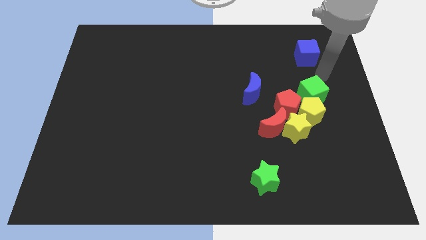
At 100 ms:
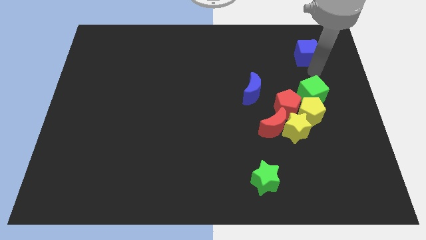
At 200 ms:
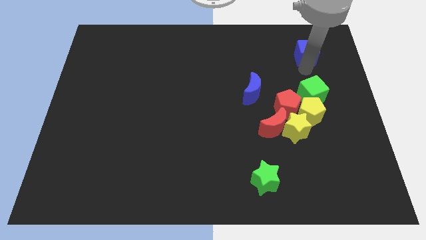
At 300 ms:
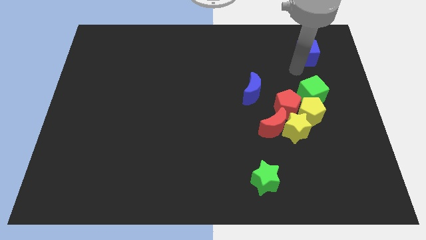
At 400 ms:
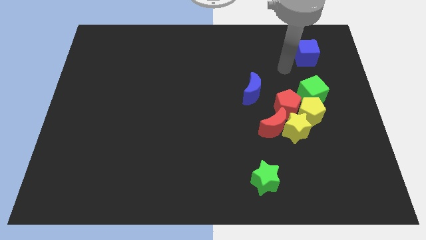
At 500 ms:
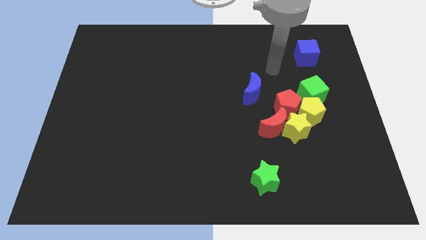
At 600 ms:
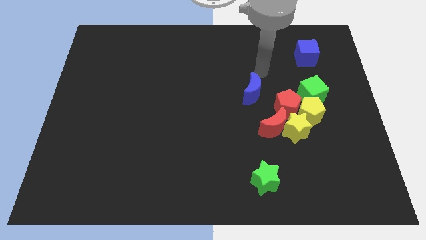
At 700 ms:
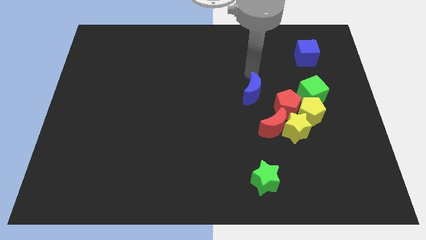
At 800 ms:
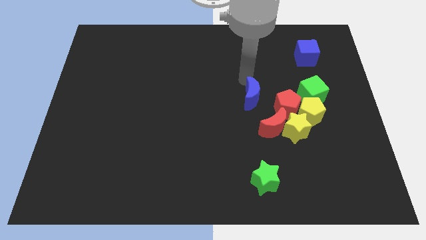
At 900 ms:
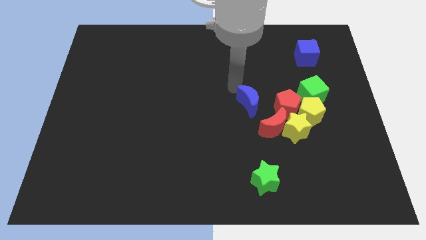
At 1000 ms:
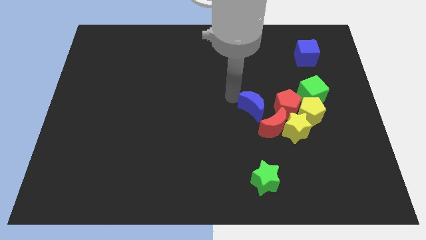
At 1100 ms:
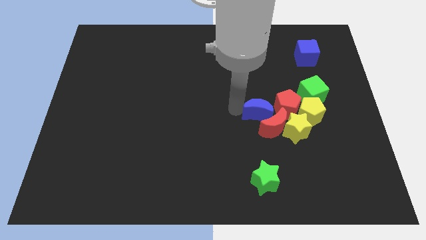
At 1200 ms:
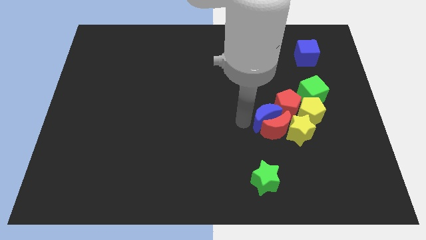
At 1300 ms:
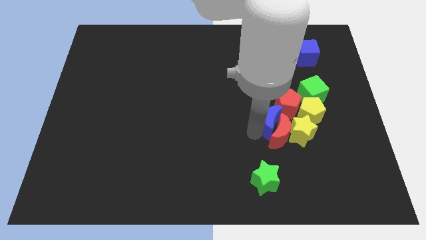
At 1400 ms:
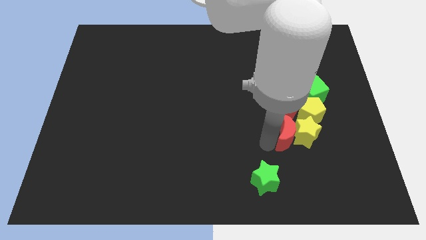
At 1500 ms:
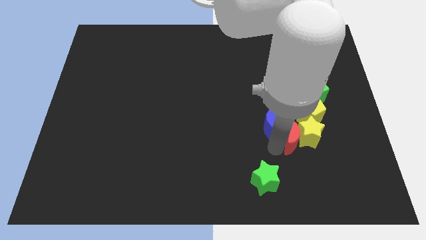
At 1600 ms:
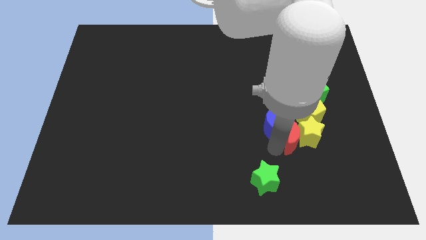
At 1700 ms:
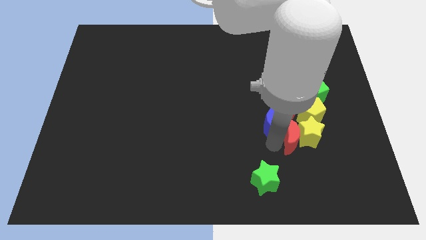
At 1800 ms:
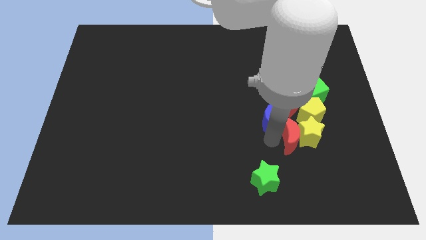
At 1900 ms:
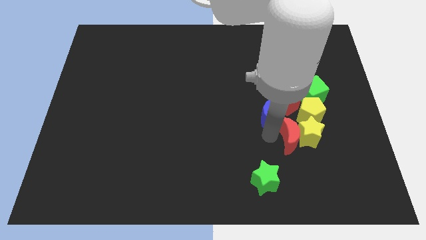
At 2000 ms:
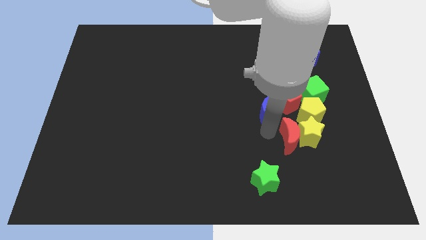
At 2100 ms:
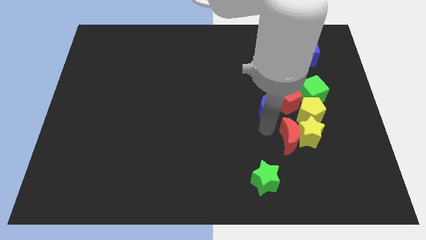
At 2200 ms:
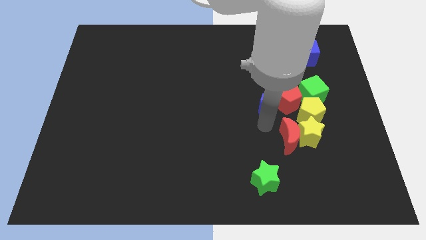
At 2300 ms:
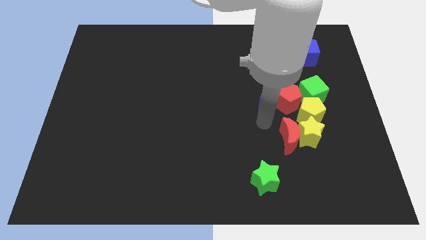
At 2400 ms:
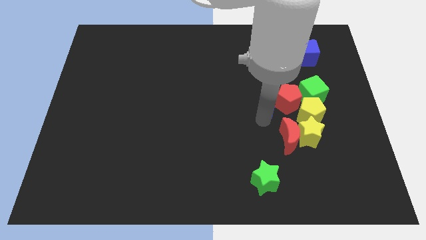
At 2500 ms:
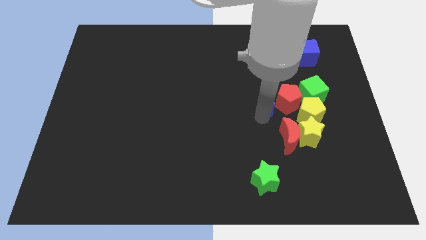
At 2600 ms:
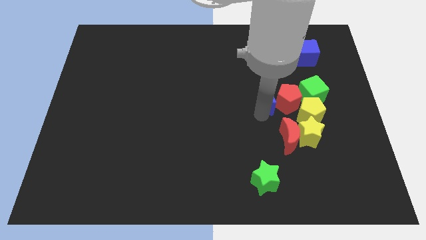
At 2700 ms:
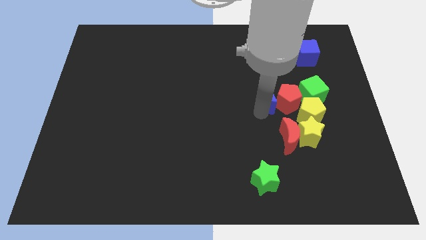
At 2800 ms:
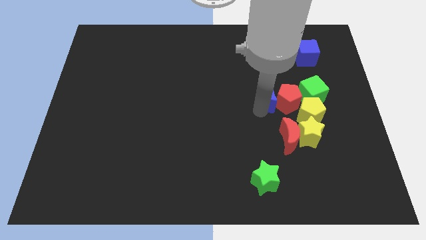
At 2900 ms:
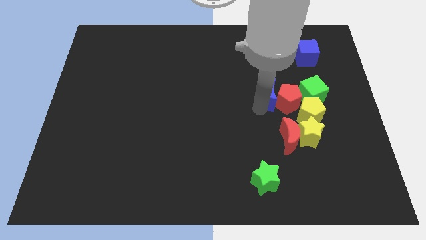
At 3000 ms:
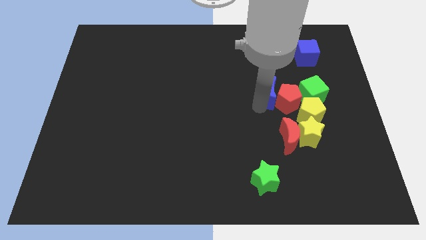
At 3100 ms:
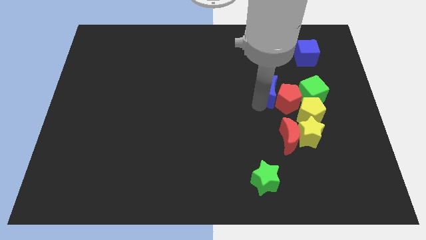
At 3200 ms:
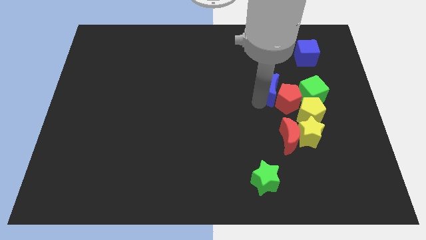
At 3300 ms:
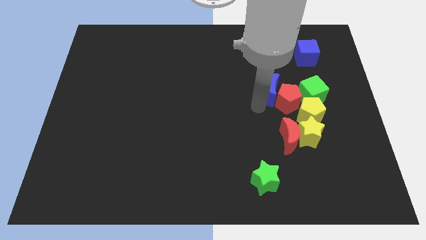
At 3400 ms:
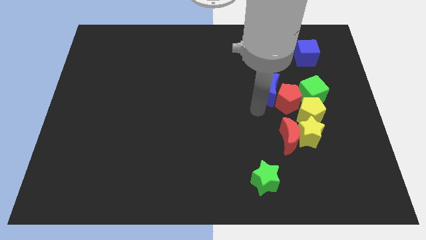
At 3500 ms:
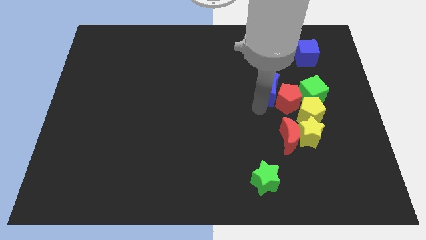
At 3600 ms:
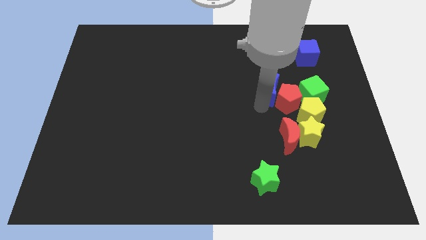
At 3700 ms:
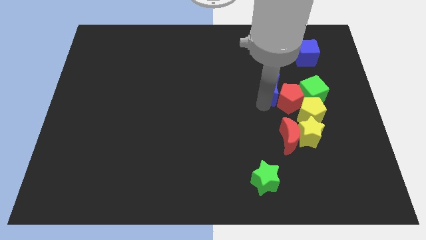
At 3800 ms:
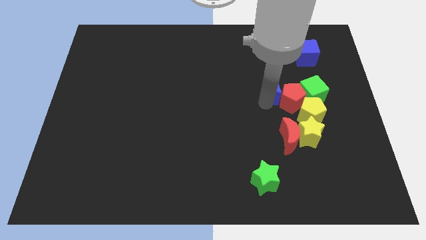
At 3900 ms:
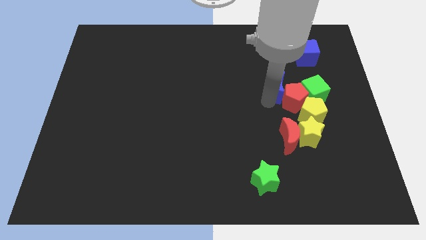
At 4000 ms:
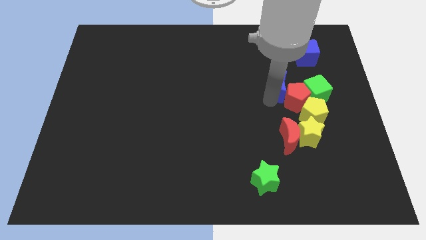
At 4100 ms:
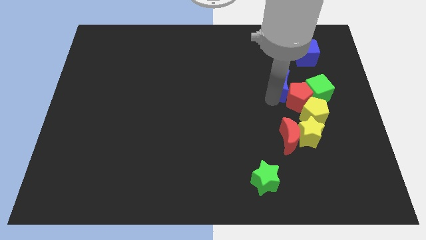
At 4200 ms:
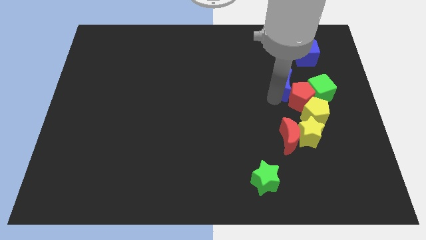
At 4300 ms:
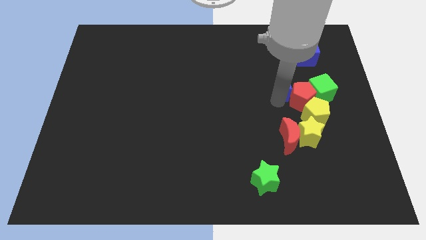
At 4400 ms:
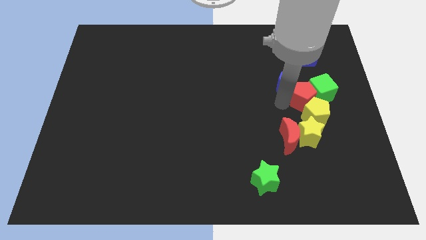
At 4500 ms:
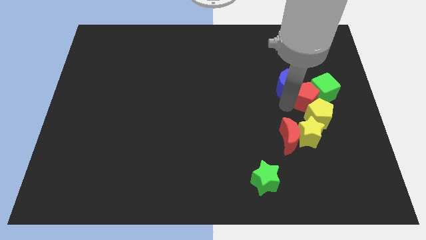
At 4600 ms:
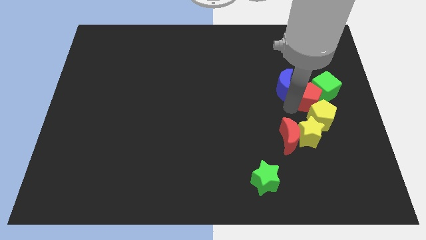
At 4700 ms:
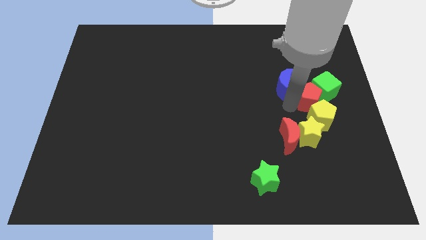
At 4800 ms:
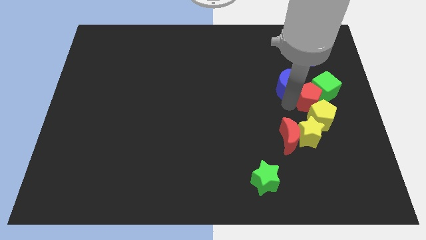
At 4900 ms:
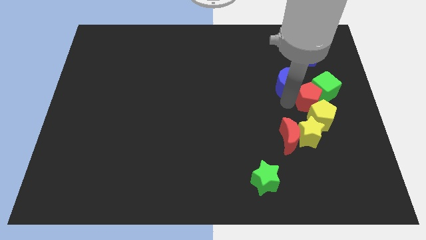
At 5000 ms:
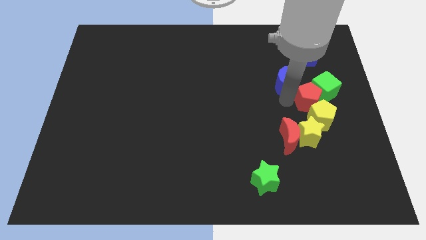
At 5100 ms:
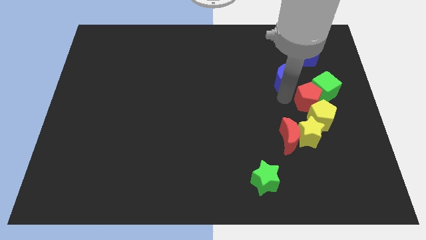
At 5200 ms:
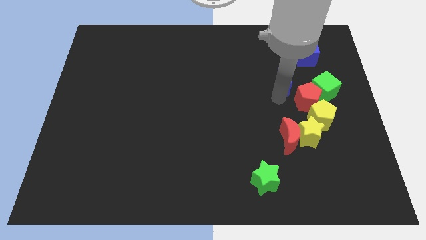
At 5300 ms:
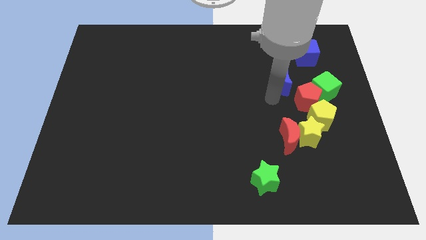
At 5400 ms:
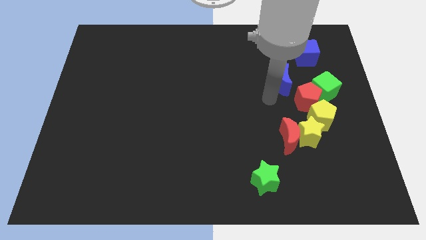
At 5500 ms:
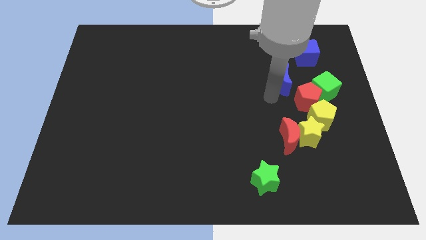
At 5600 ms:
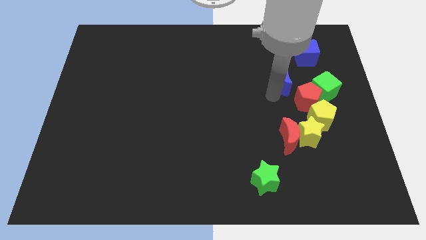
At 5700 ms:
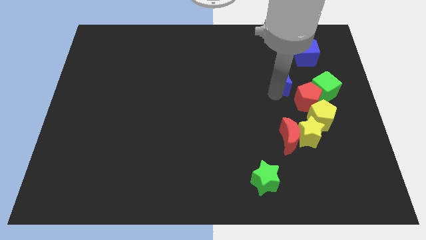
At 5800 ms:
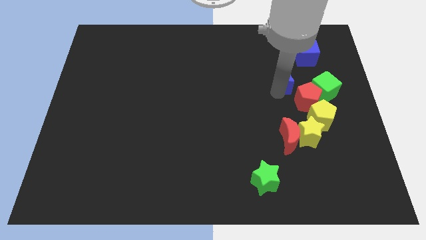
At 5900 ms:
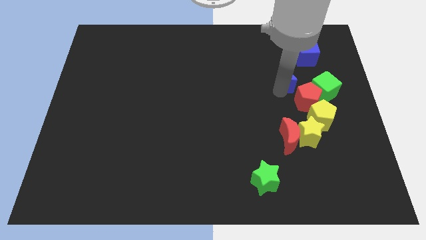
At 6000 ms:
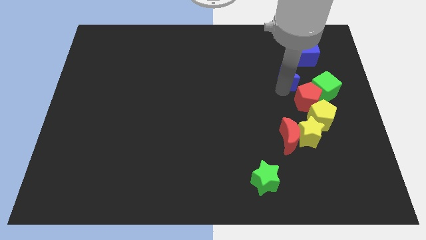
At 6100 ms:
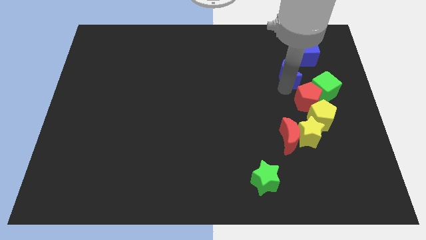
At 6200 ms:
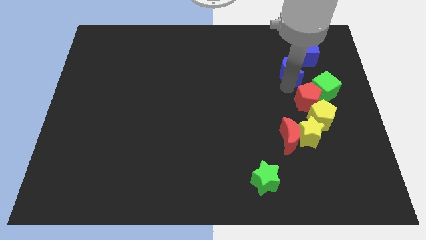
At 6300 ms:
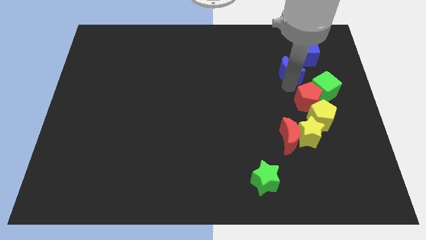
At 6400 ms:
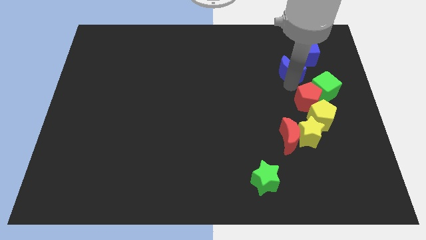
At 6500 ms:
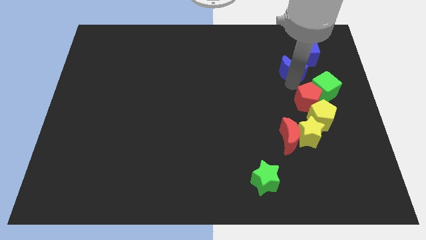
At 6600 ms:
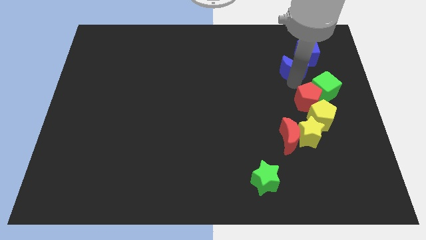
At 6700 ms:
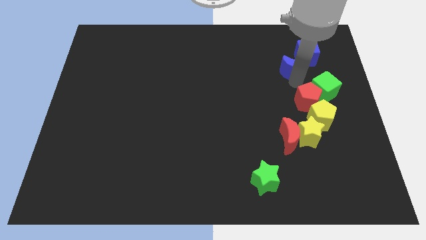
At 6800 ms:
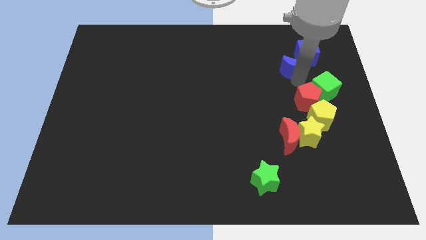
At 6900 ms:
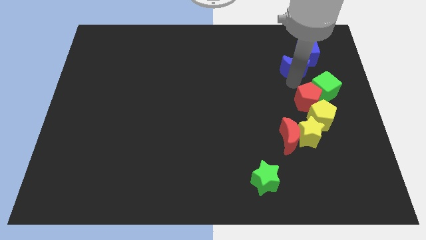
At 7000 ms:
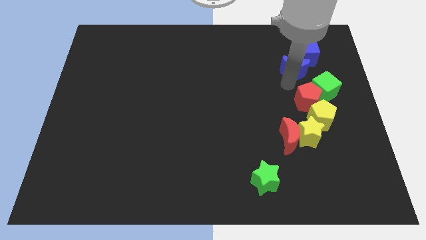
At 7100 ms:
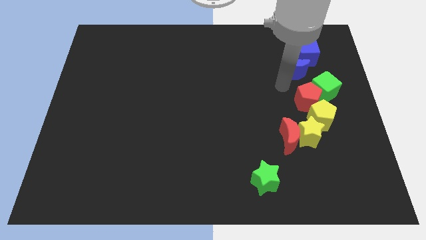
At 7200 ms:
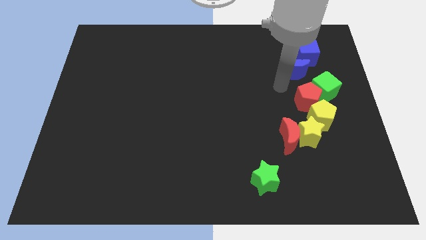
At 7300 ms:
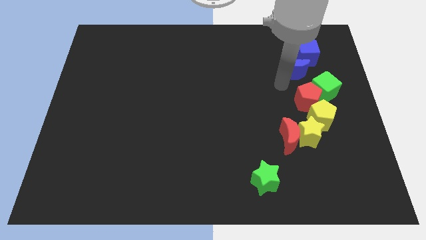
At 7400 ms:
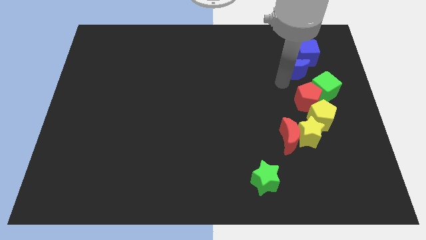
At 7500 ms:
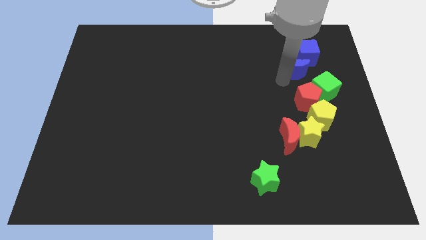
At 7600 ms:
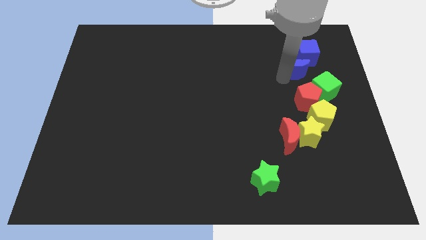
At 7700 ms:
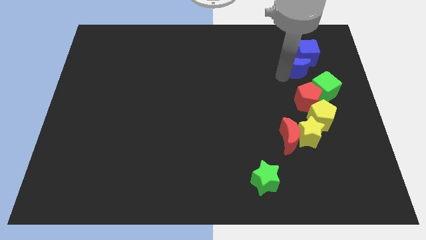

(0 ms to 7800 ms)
push the blue moon to the blue cube
